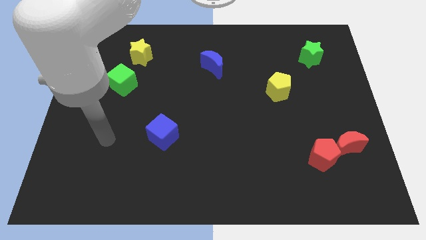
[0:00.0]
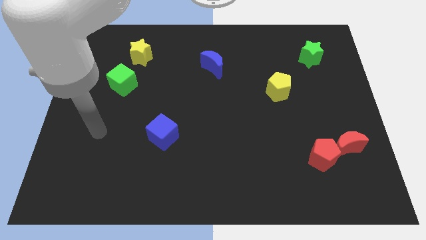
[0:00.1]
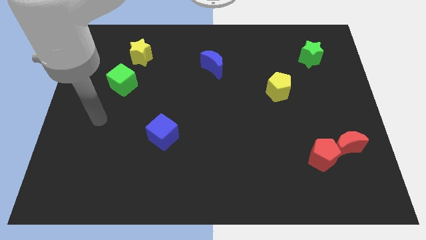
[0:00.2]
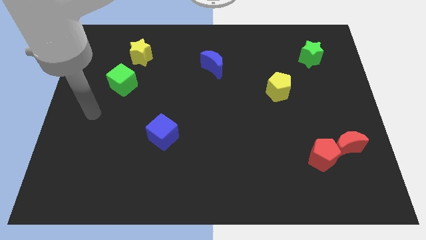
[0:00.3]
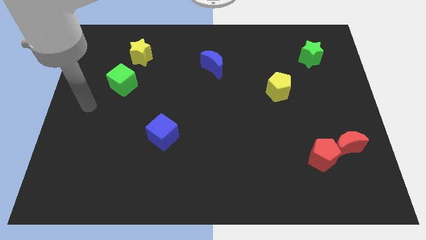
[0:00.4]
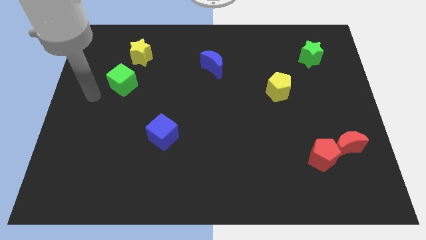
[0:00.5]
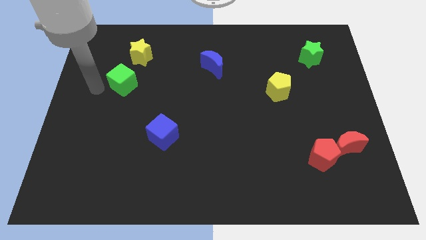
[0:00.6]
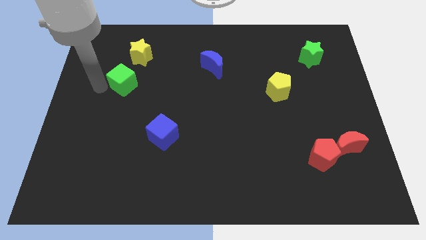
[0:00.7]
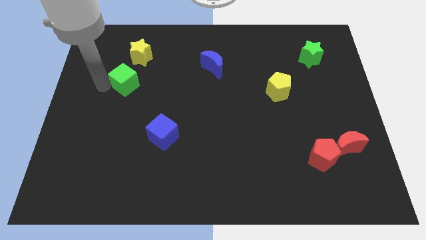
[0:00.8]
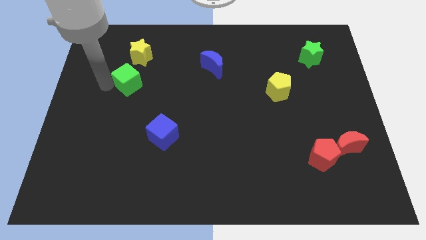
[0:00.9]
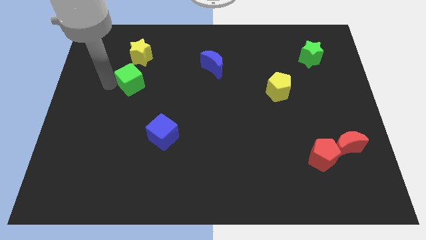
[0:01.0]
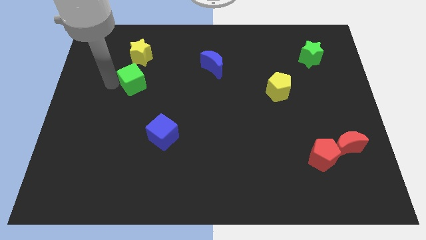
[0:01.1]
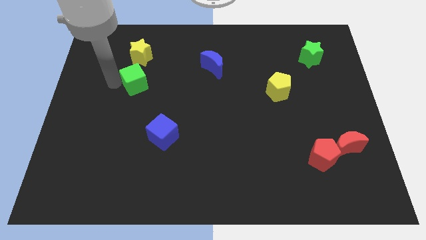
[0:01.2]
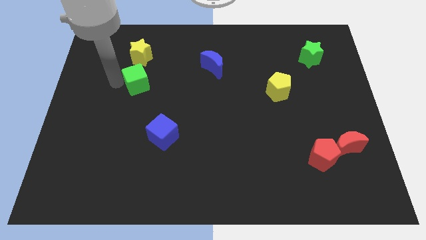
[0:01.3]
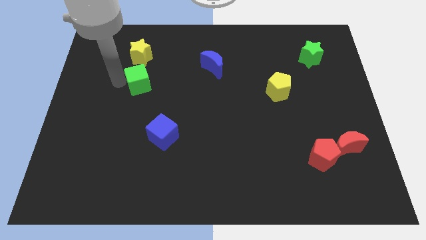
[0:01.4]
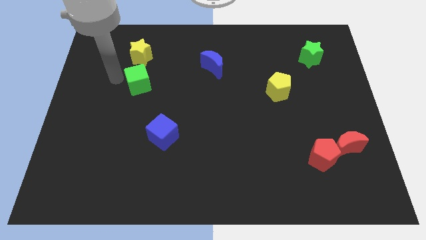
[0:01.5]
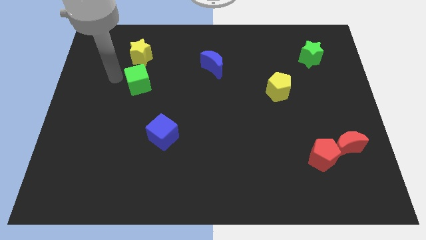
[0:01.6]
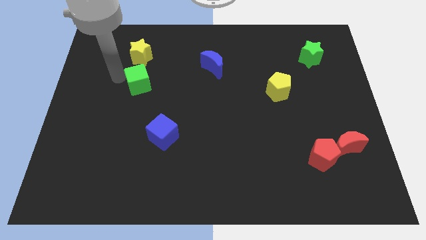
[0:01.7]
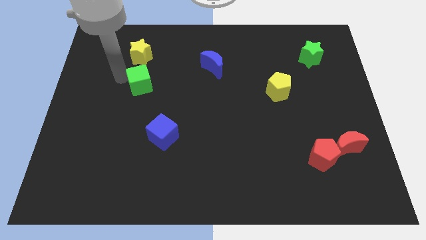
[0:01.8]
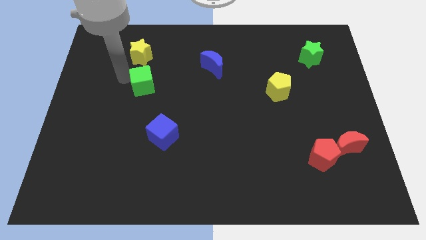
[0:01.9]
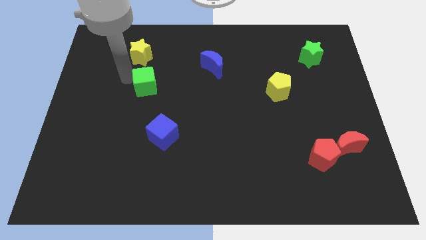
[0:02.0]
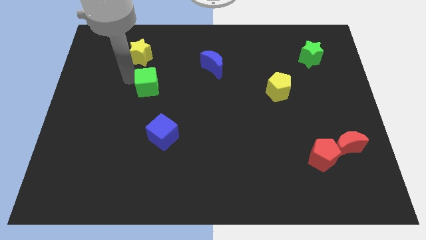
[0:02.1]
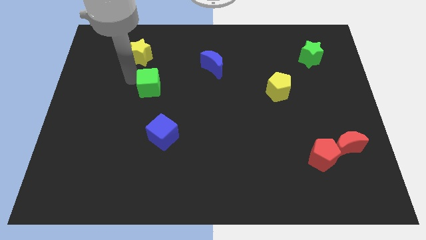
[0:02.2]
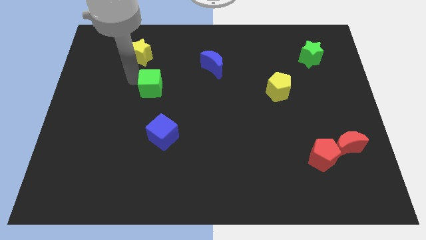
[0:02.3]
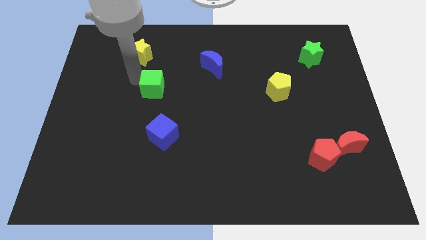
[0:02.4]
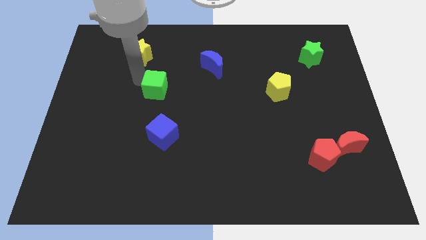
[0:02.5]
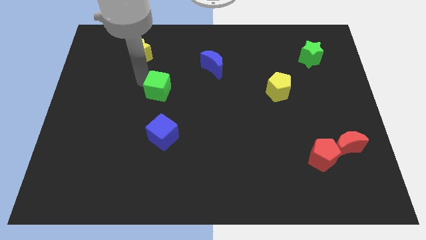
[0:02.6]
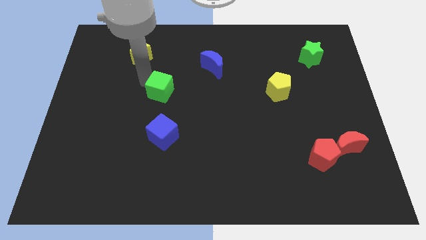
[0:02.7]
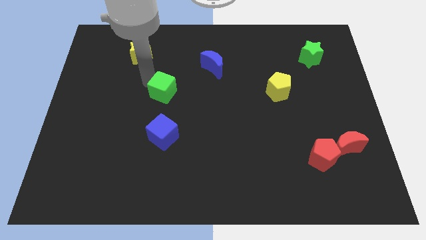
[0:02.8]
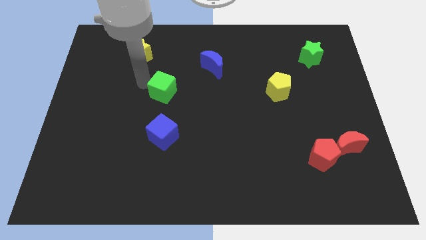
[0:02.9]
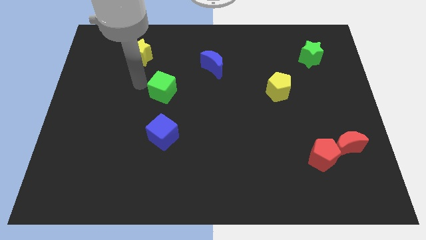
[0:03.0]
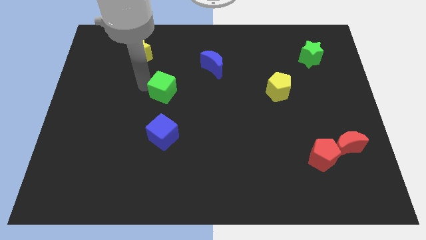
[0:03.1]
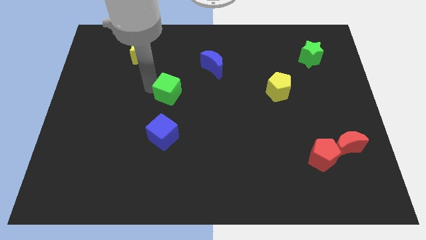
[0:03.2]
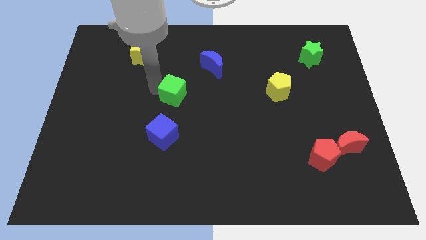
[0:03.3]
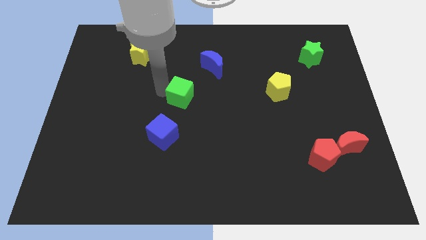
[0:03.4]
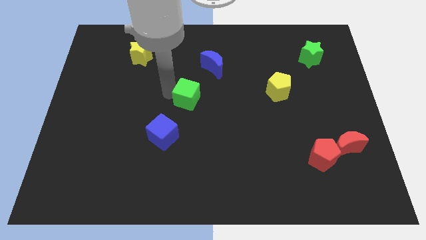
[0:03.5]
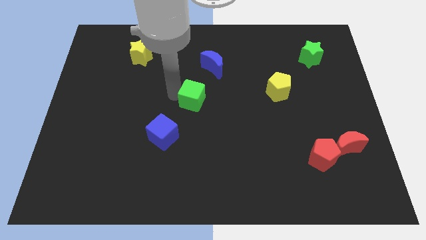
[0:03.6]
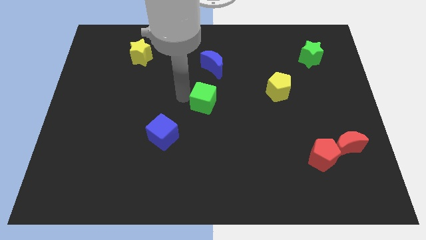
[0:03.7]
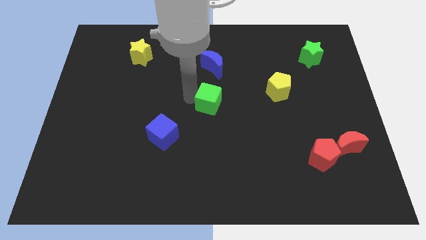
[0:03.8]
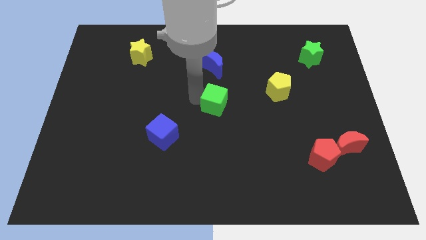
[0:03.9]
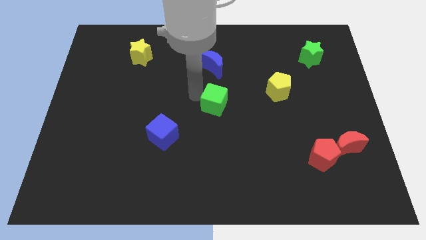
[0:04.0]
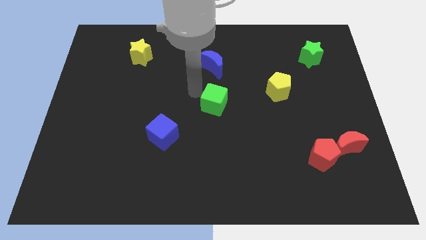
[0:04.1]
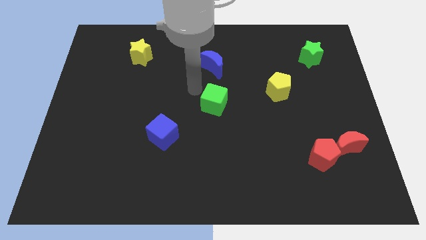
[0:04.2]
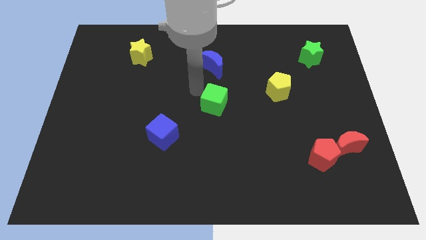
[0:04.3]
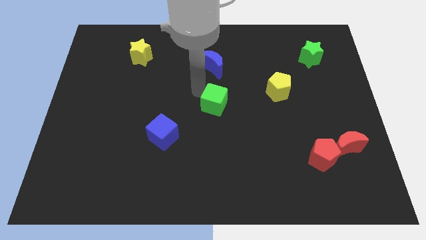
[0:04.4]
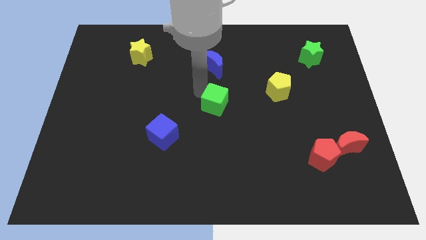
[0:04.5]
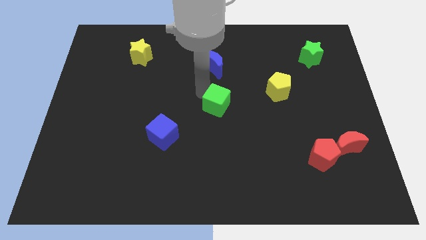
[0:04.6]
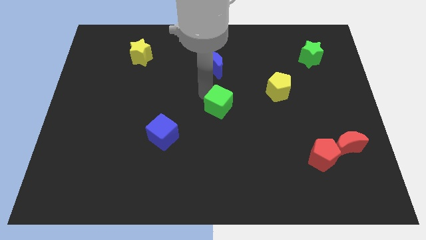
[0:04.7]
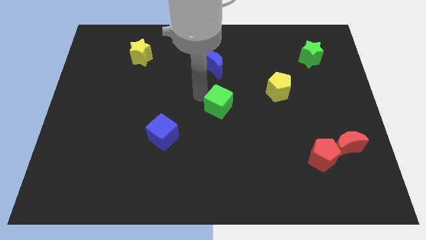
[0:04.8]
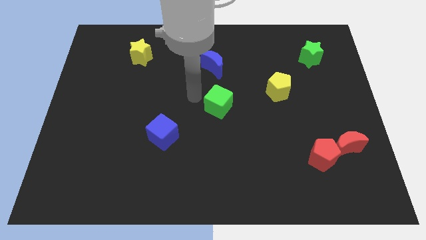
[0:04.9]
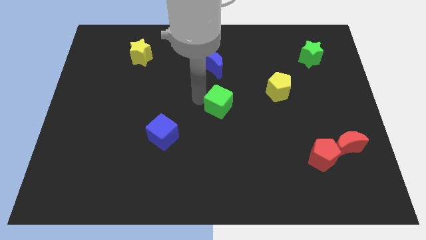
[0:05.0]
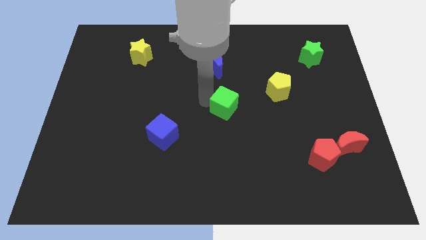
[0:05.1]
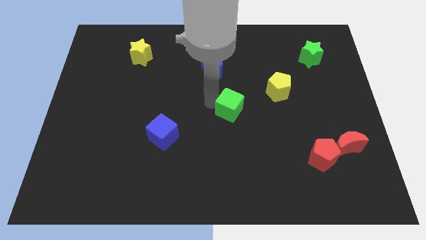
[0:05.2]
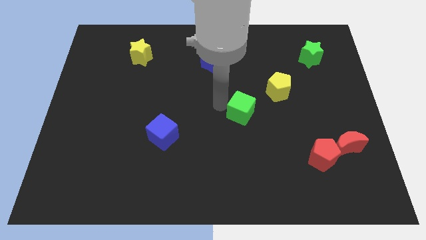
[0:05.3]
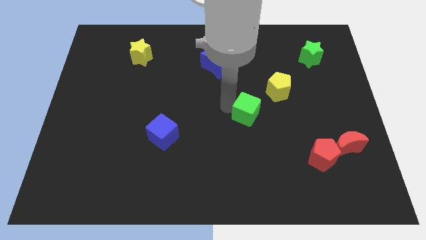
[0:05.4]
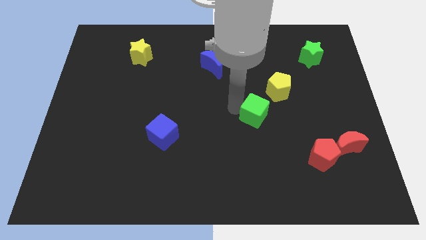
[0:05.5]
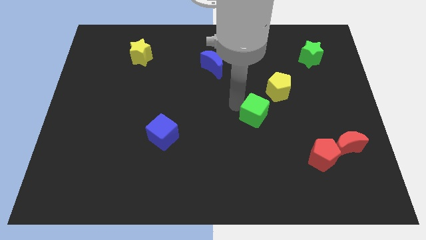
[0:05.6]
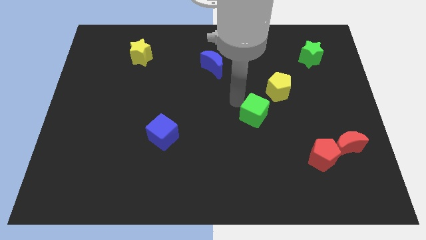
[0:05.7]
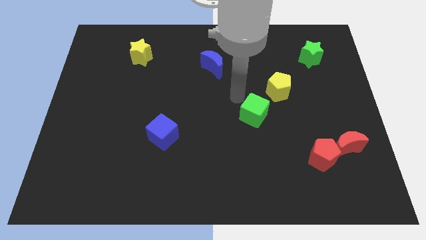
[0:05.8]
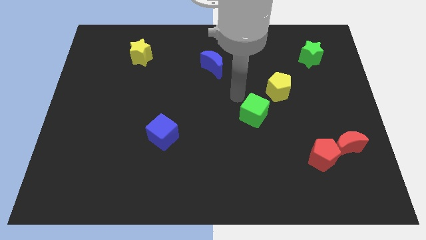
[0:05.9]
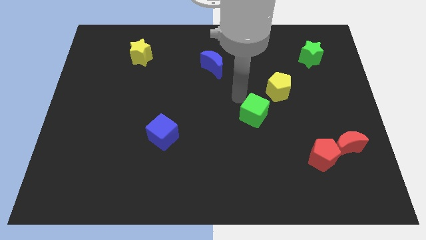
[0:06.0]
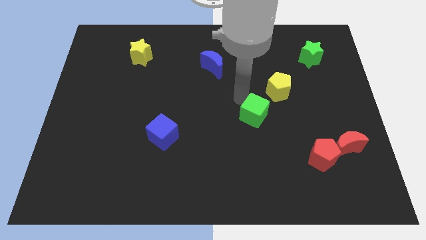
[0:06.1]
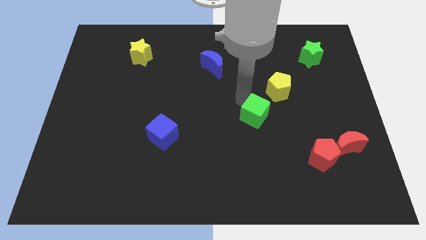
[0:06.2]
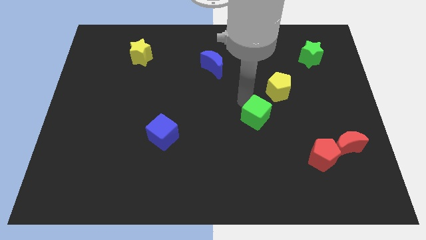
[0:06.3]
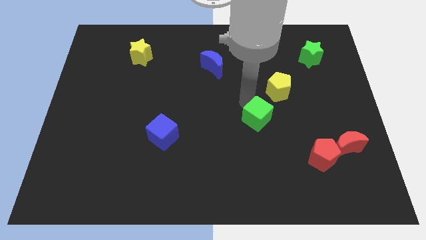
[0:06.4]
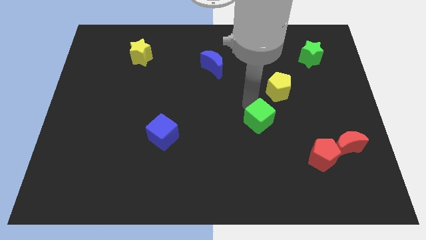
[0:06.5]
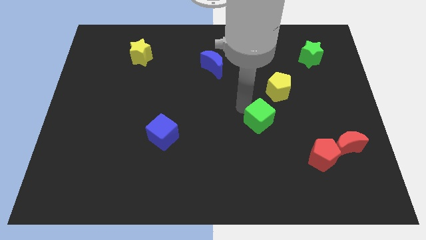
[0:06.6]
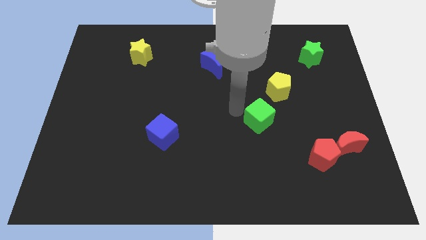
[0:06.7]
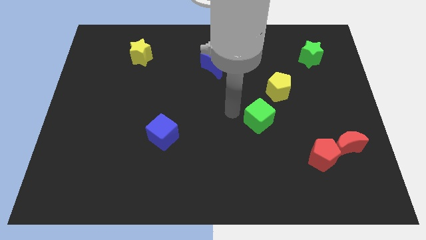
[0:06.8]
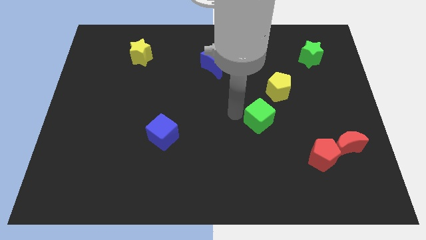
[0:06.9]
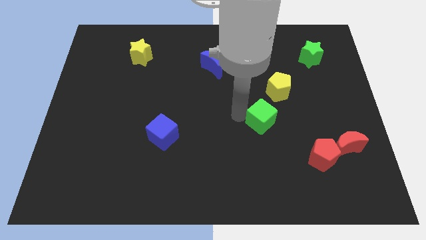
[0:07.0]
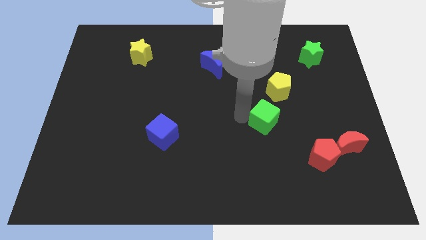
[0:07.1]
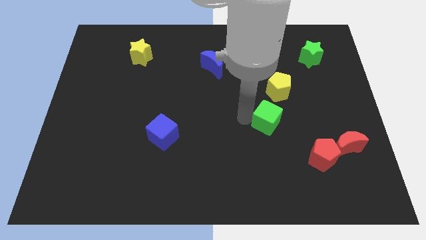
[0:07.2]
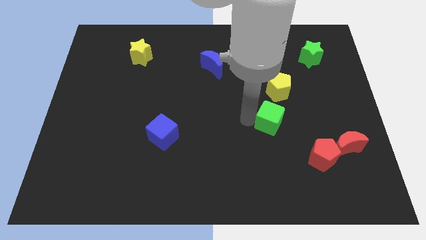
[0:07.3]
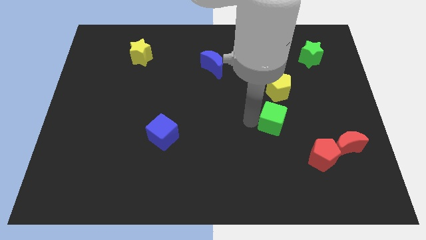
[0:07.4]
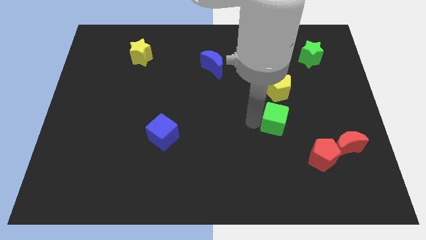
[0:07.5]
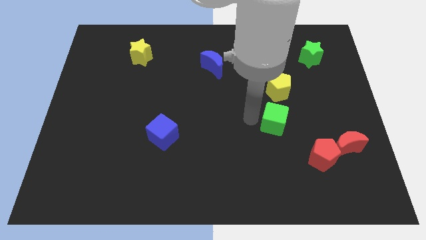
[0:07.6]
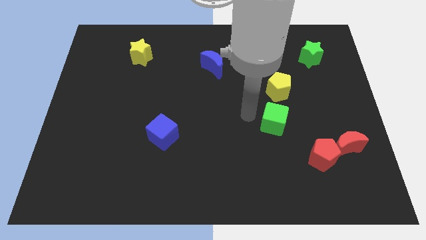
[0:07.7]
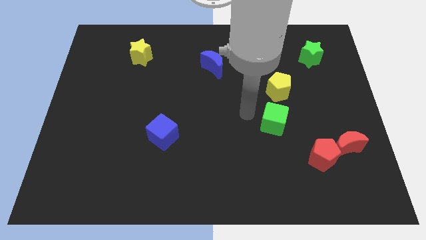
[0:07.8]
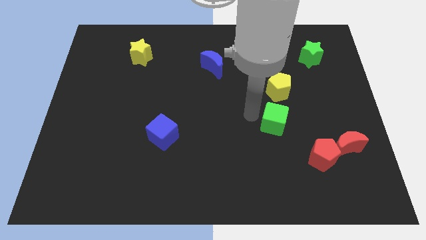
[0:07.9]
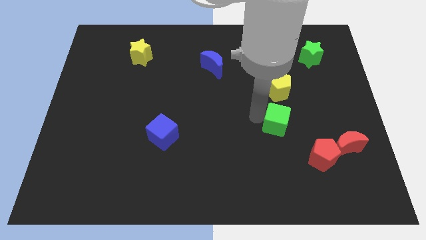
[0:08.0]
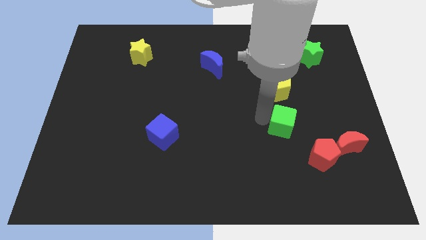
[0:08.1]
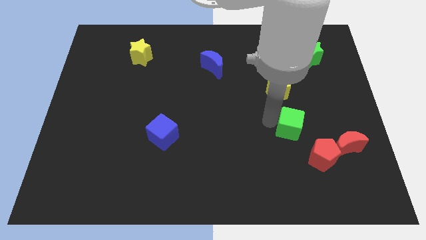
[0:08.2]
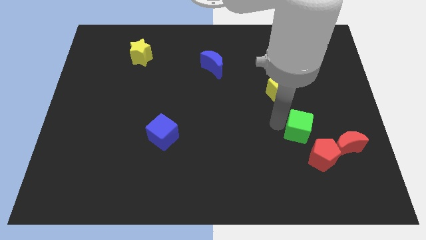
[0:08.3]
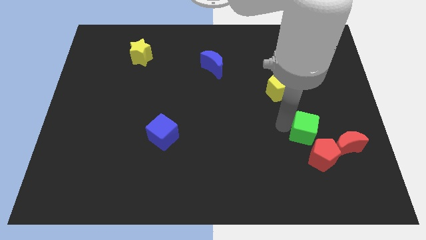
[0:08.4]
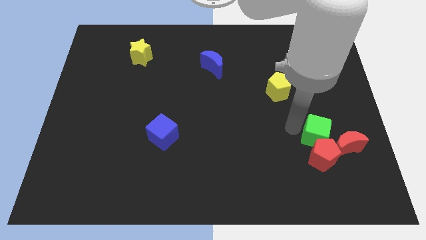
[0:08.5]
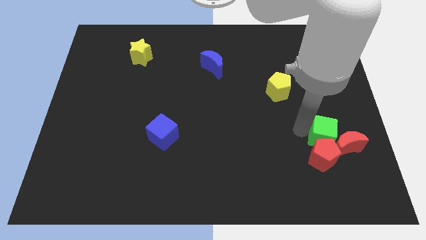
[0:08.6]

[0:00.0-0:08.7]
put the green cube close to the red moon
